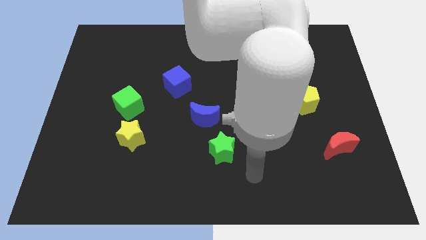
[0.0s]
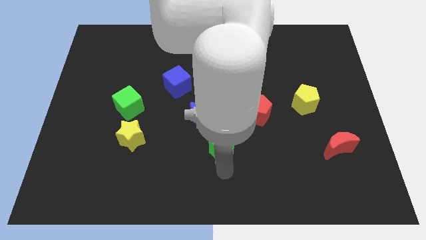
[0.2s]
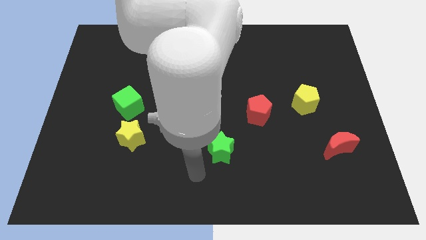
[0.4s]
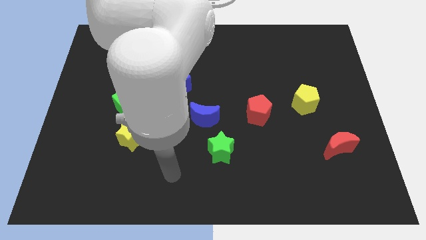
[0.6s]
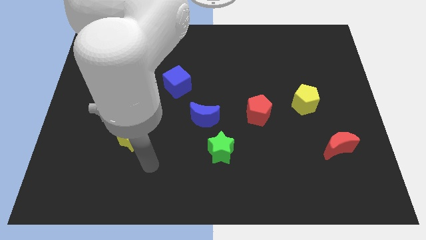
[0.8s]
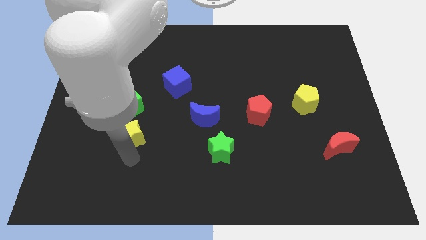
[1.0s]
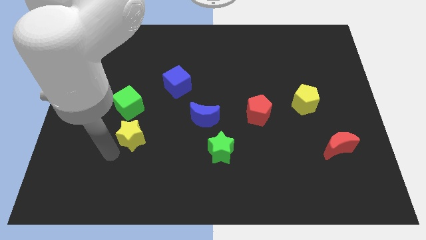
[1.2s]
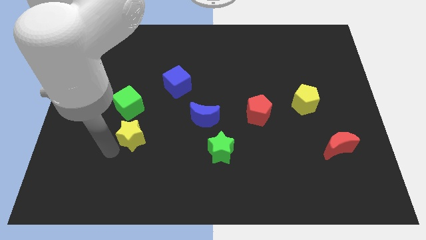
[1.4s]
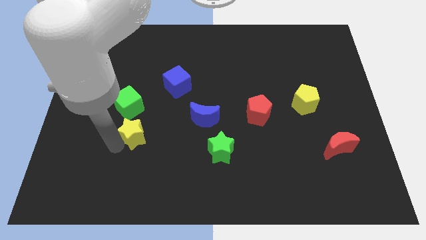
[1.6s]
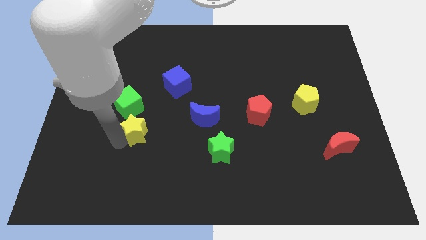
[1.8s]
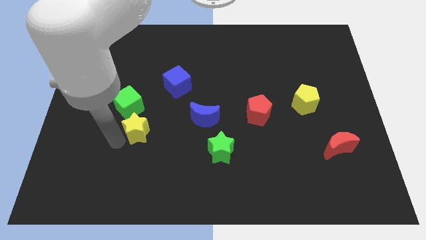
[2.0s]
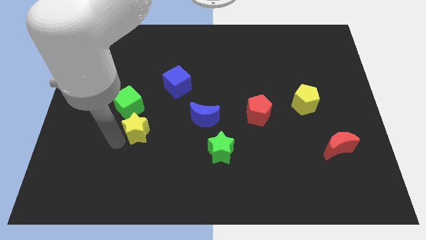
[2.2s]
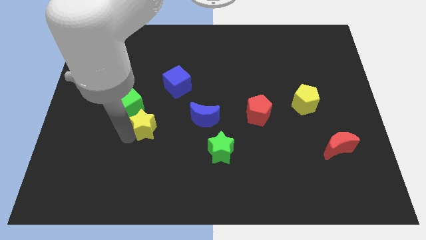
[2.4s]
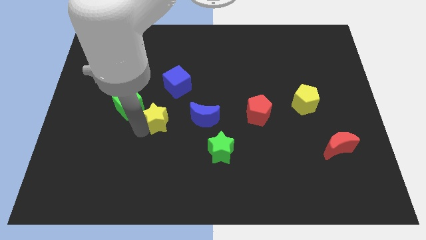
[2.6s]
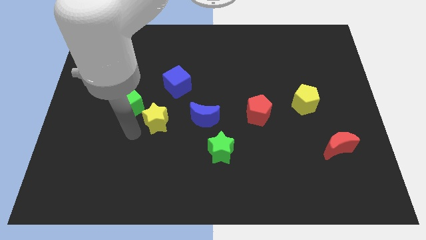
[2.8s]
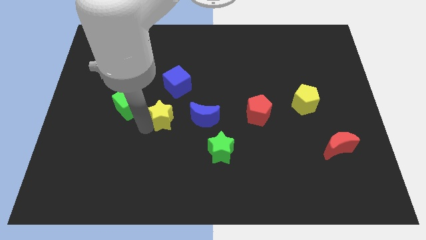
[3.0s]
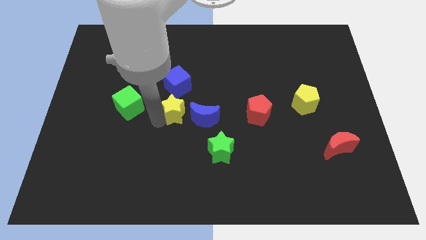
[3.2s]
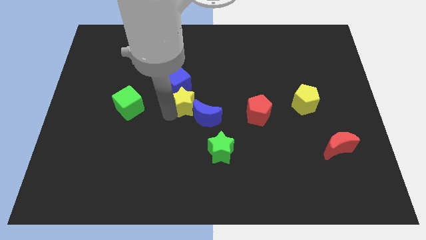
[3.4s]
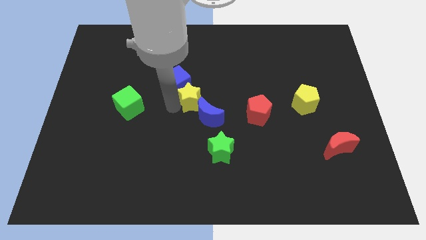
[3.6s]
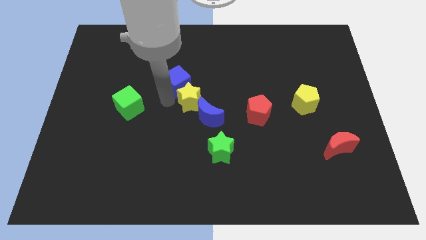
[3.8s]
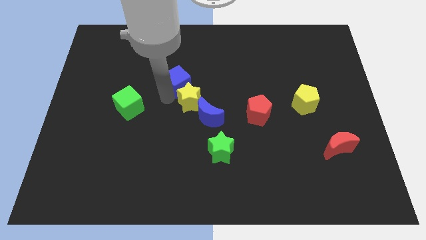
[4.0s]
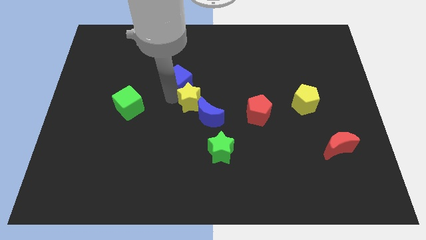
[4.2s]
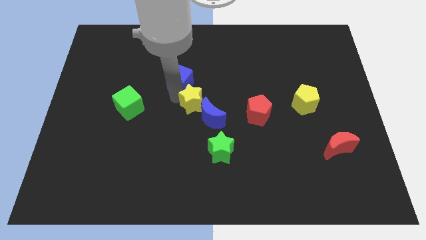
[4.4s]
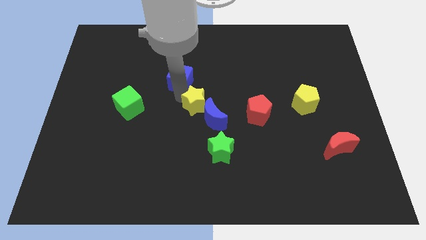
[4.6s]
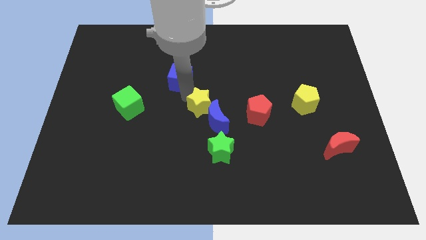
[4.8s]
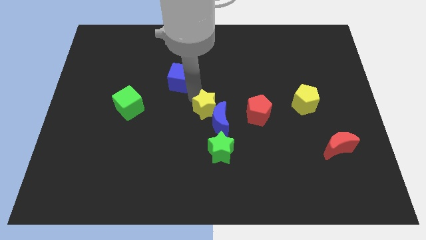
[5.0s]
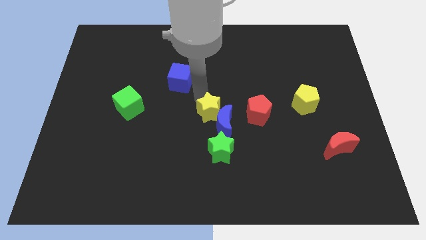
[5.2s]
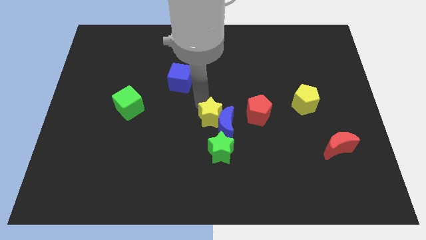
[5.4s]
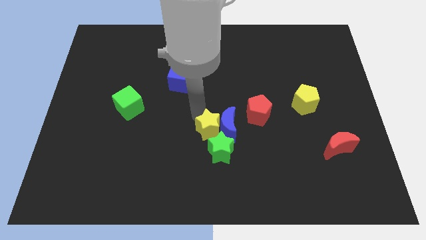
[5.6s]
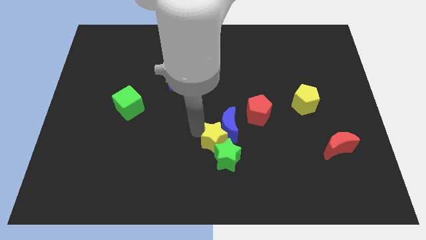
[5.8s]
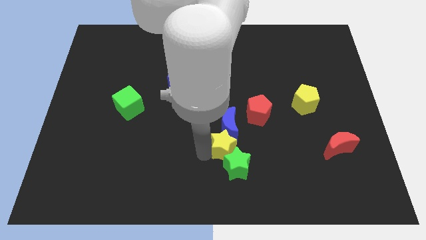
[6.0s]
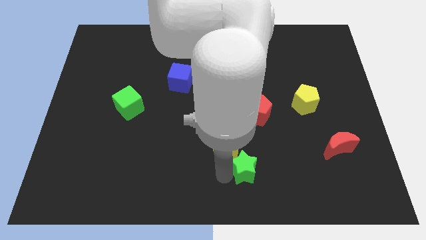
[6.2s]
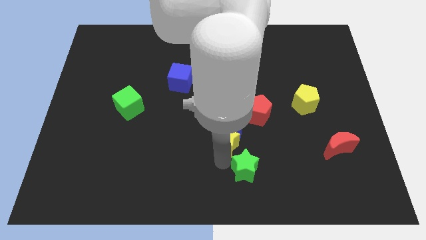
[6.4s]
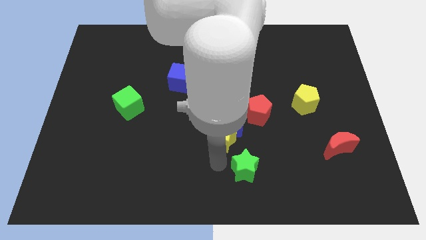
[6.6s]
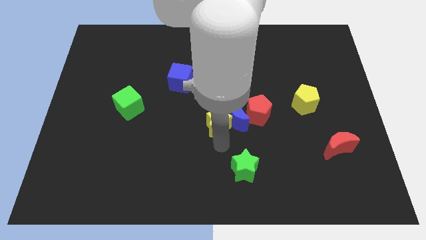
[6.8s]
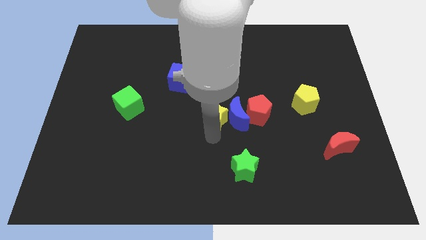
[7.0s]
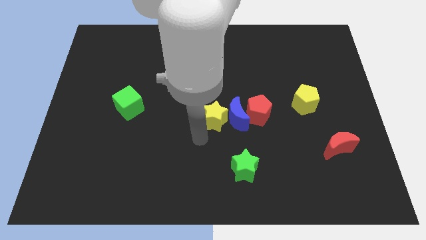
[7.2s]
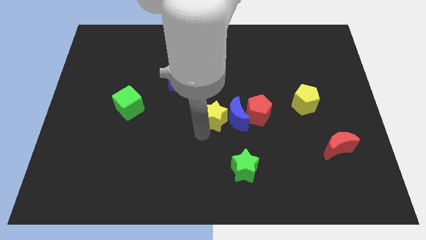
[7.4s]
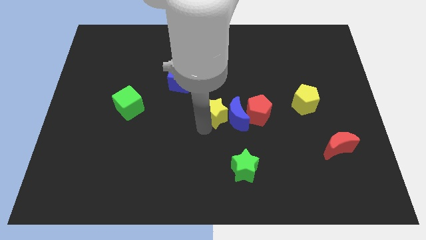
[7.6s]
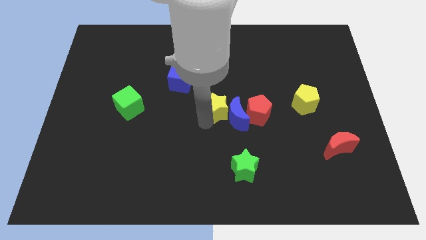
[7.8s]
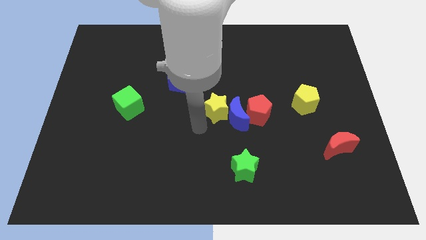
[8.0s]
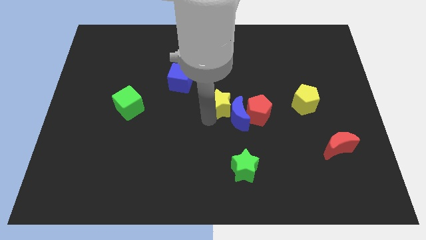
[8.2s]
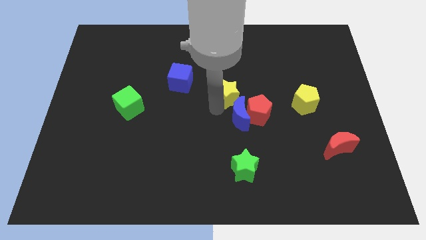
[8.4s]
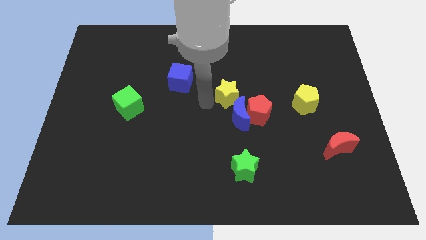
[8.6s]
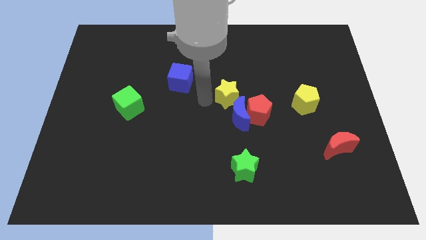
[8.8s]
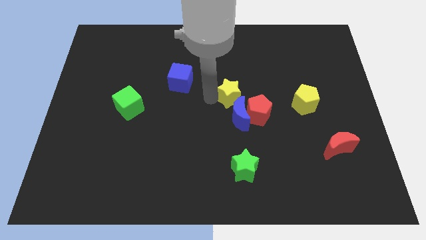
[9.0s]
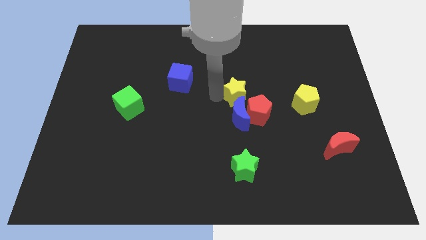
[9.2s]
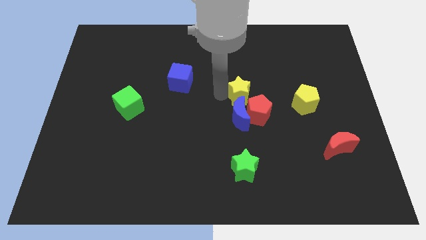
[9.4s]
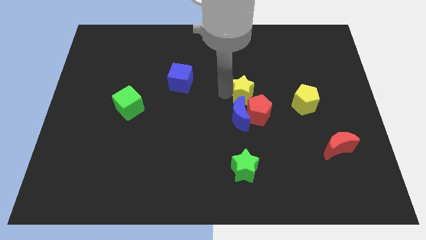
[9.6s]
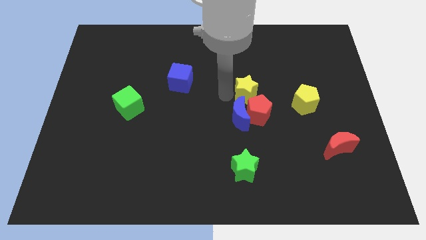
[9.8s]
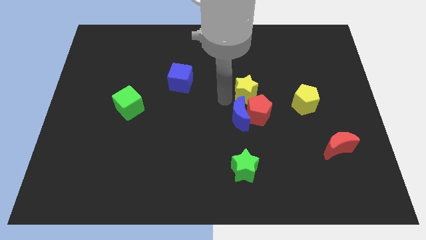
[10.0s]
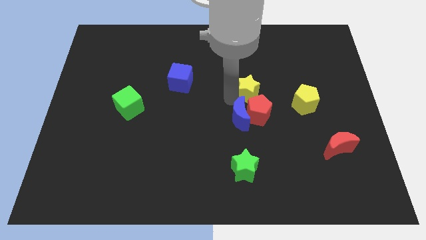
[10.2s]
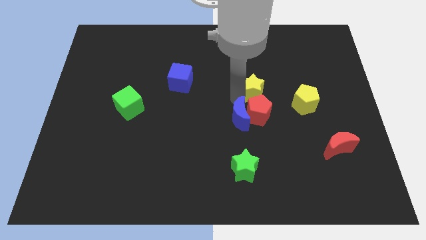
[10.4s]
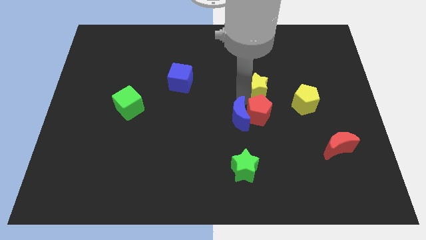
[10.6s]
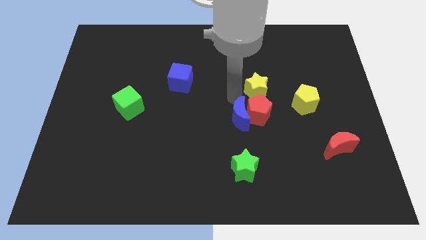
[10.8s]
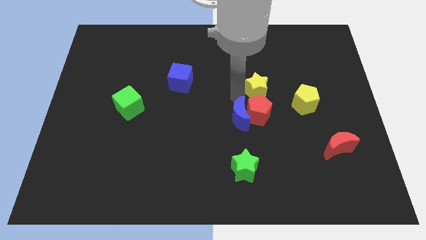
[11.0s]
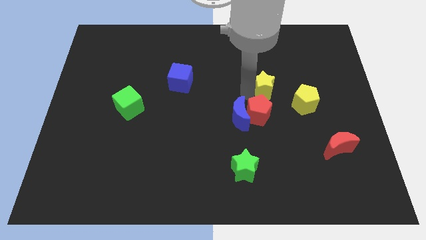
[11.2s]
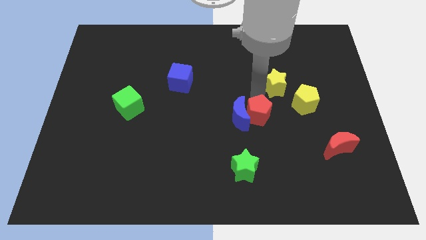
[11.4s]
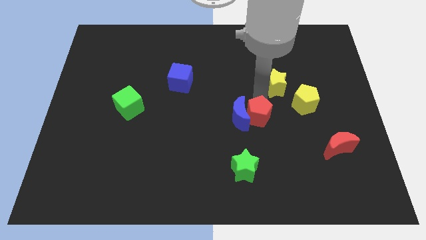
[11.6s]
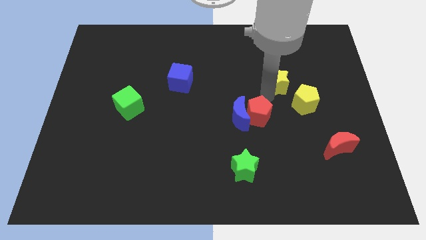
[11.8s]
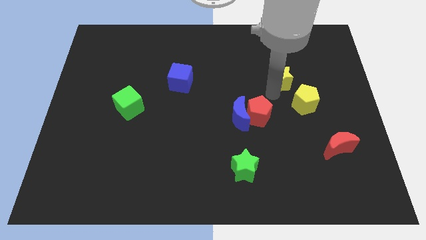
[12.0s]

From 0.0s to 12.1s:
slide the yellow star above the yellow pentagon

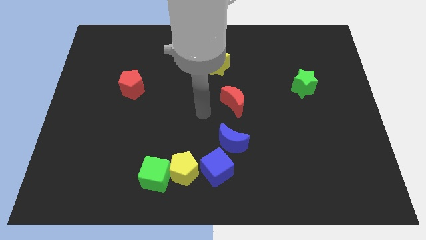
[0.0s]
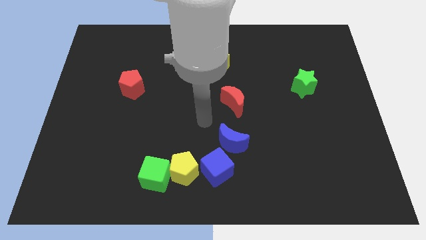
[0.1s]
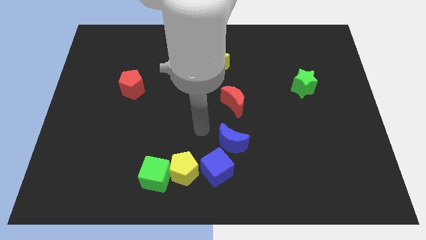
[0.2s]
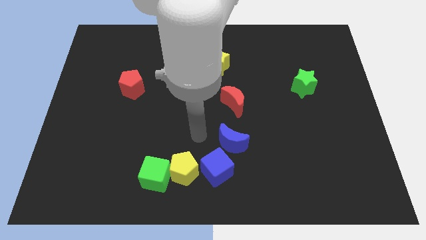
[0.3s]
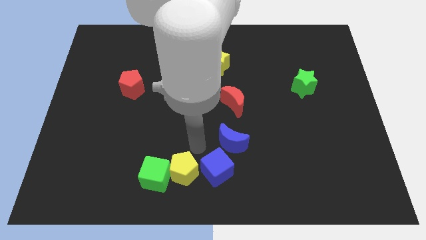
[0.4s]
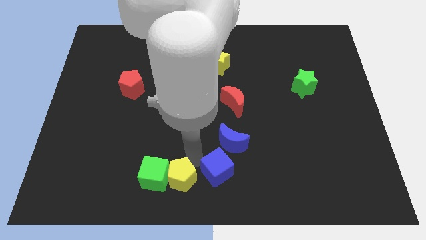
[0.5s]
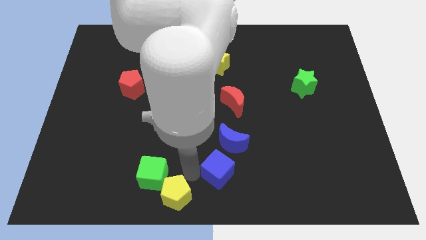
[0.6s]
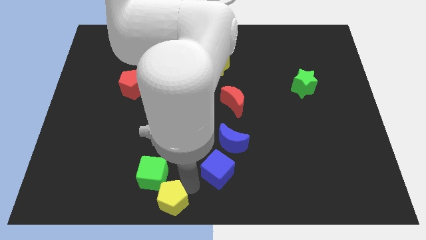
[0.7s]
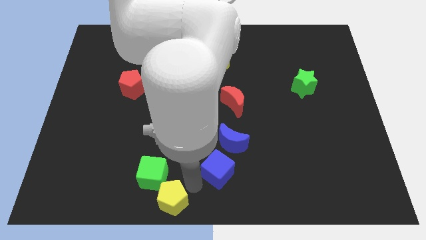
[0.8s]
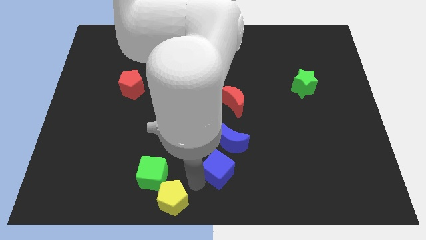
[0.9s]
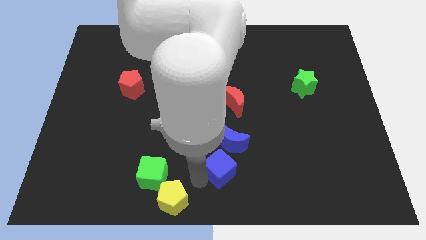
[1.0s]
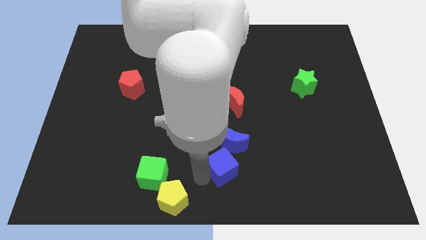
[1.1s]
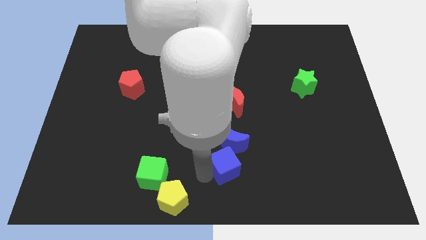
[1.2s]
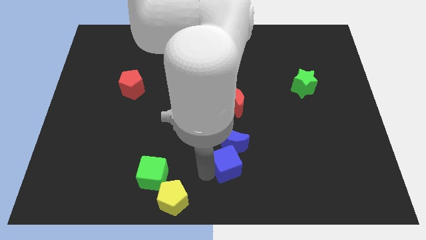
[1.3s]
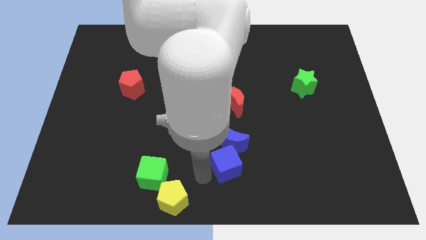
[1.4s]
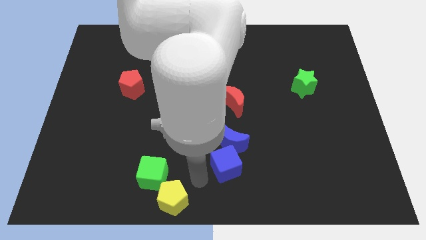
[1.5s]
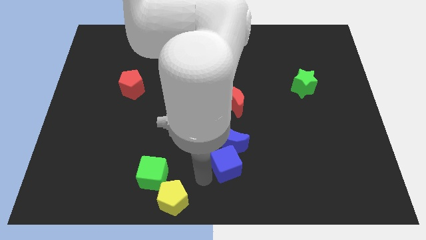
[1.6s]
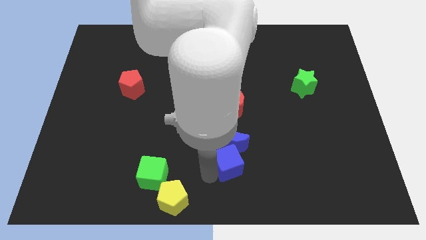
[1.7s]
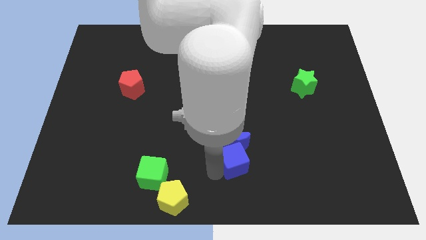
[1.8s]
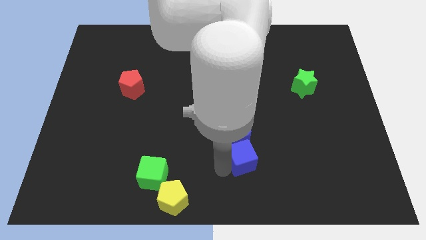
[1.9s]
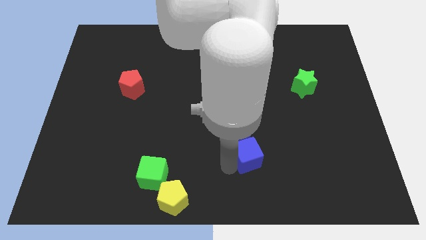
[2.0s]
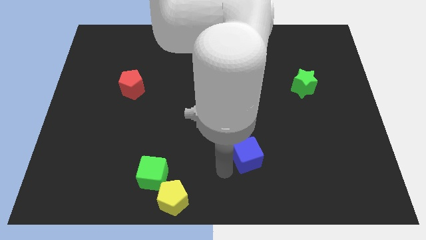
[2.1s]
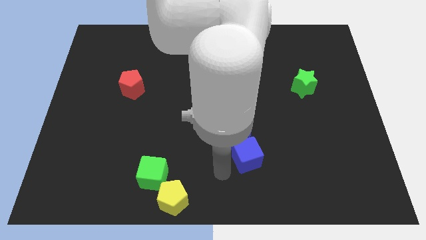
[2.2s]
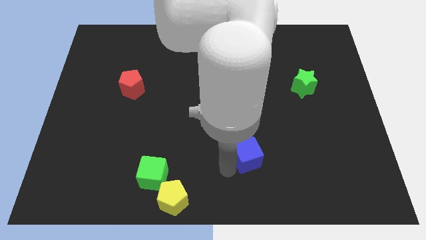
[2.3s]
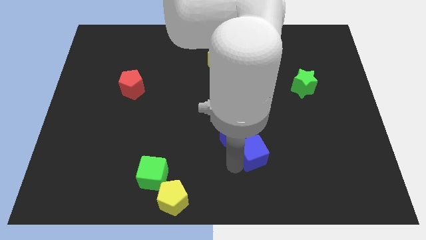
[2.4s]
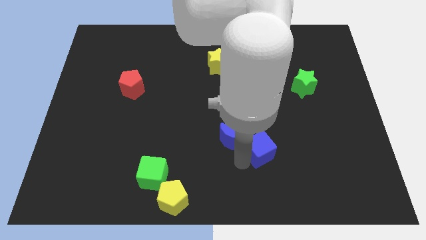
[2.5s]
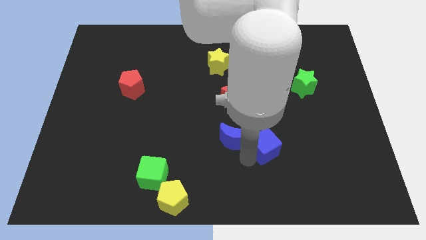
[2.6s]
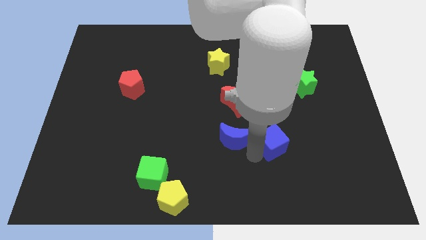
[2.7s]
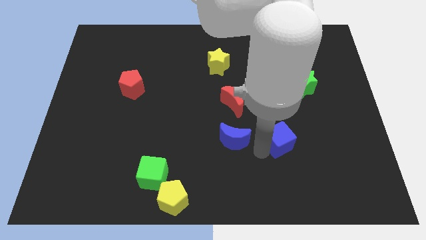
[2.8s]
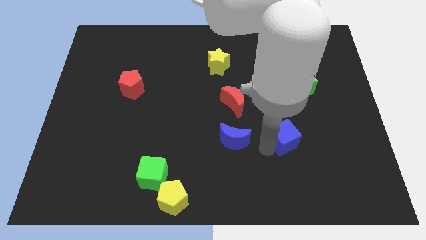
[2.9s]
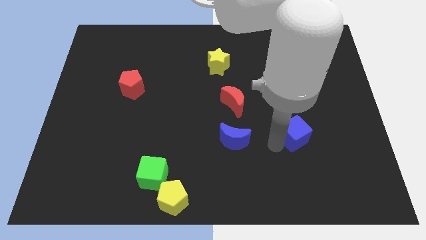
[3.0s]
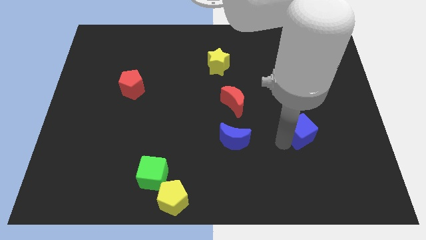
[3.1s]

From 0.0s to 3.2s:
slide the blue cube below the green star
